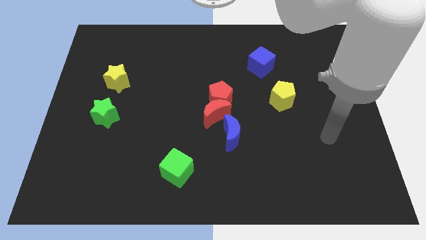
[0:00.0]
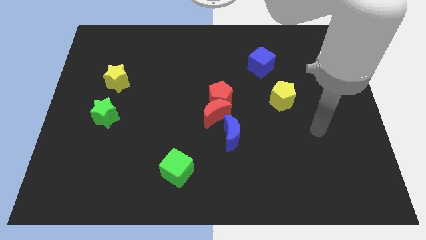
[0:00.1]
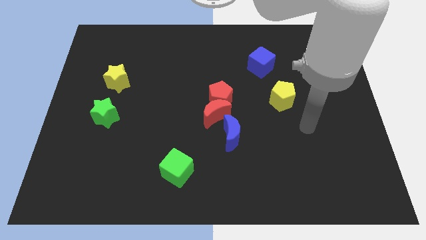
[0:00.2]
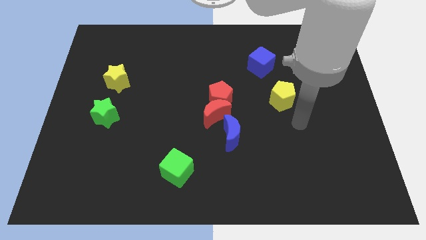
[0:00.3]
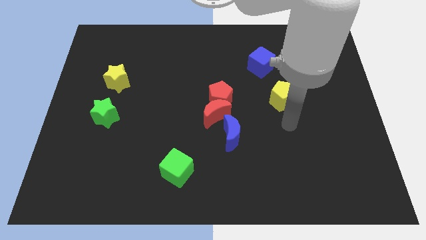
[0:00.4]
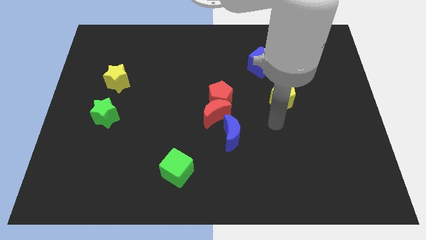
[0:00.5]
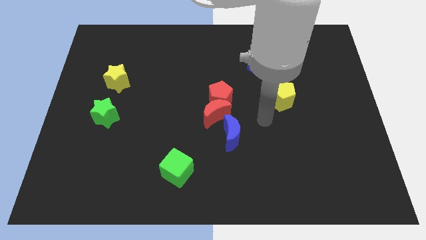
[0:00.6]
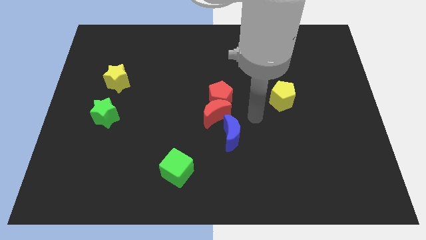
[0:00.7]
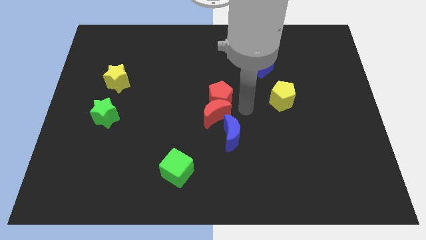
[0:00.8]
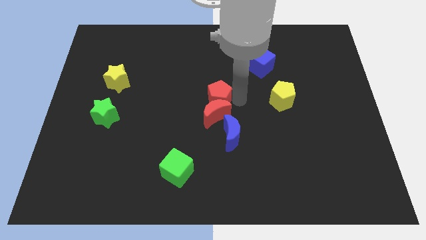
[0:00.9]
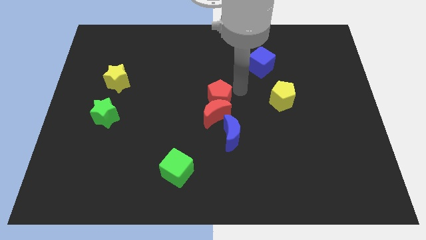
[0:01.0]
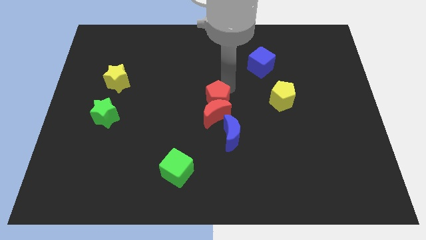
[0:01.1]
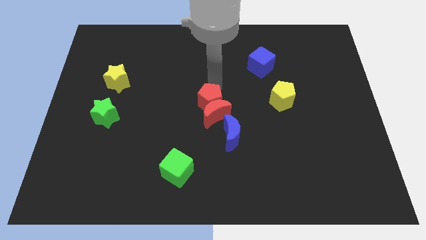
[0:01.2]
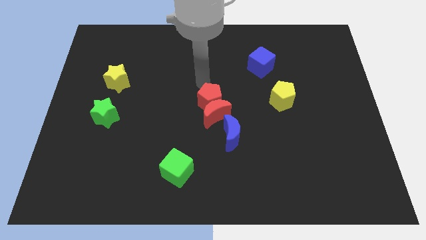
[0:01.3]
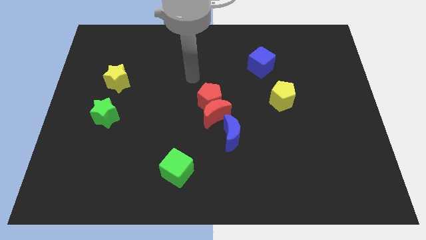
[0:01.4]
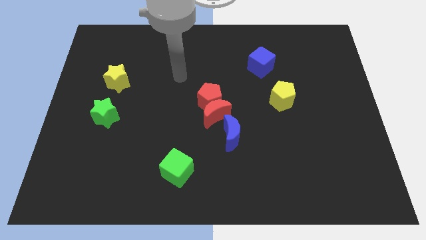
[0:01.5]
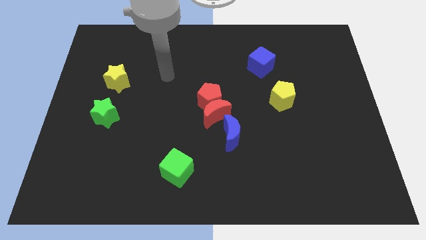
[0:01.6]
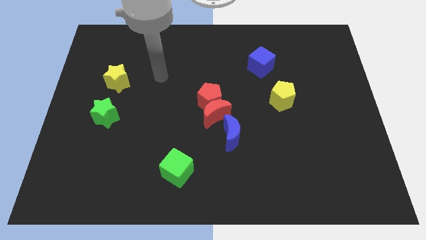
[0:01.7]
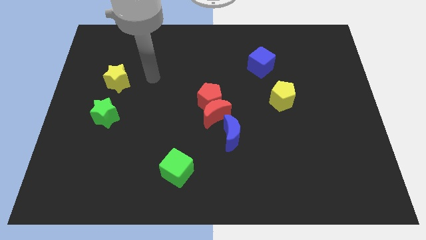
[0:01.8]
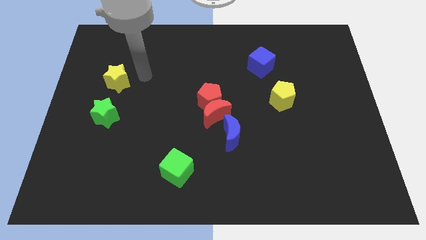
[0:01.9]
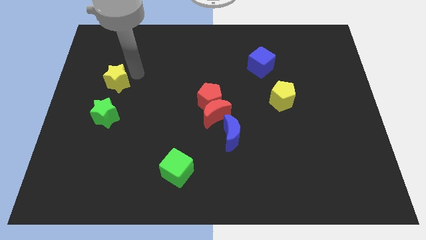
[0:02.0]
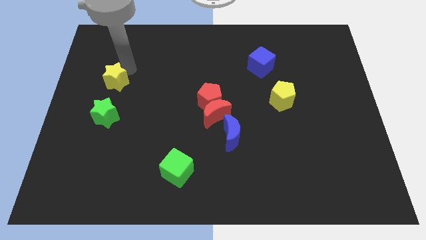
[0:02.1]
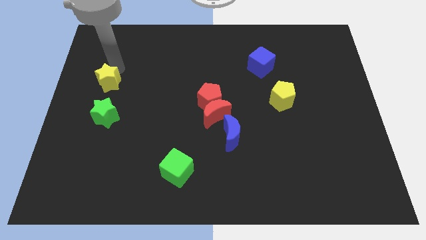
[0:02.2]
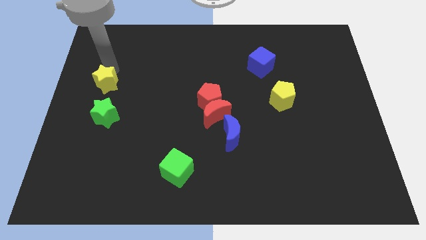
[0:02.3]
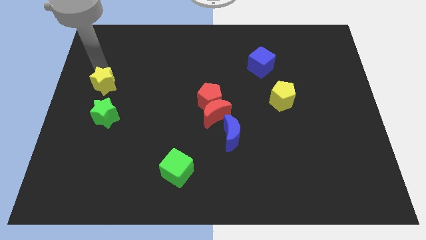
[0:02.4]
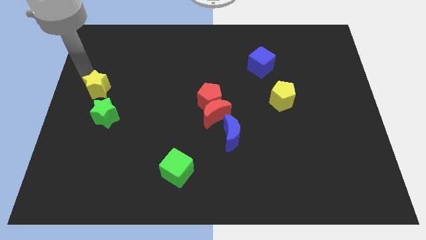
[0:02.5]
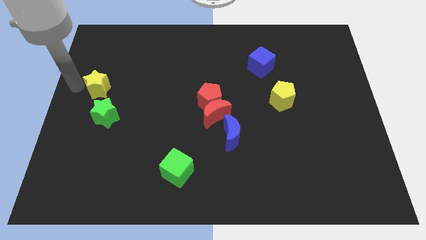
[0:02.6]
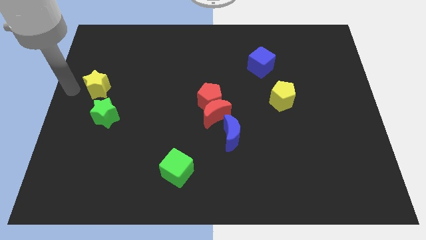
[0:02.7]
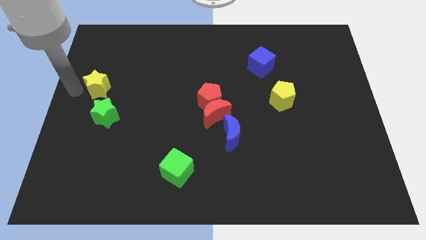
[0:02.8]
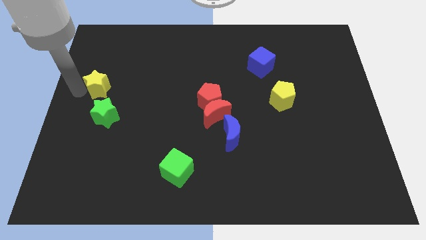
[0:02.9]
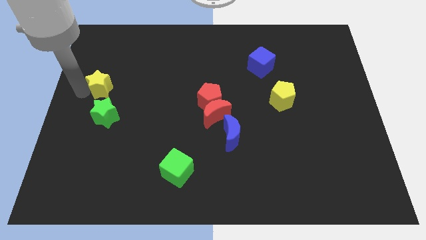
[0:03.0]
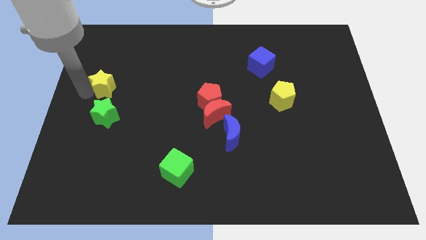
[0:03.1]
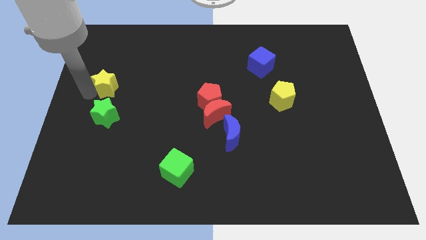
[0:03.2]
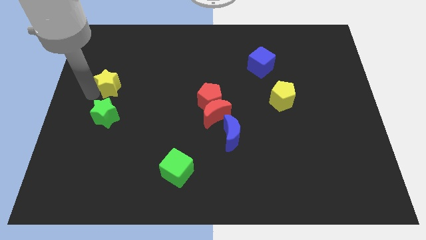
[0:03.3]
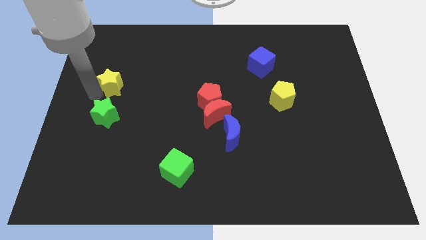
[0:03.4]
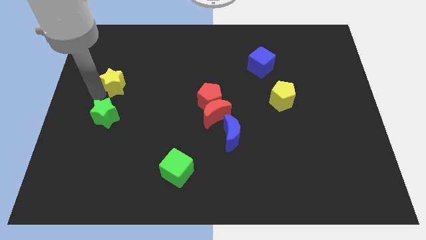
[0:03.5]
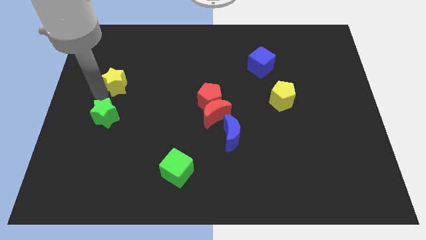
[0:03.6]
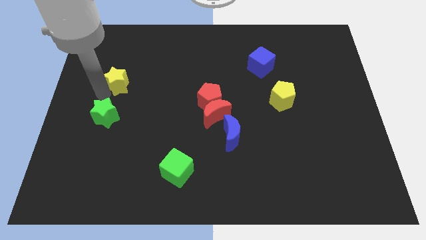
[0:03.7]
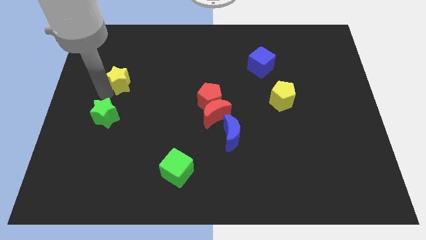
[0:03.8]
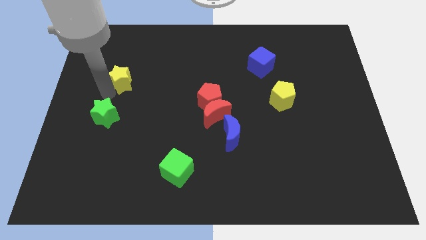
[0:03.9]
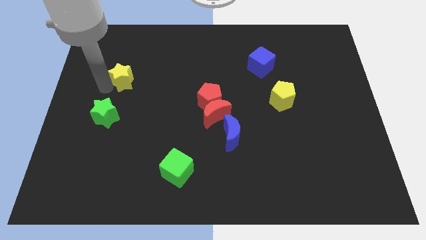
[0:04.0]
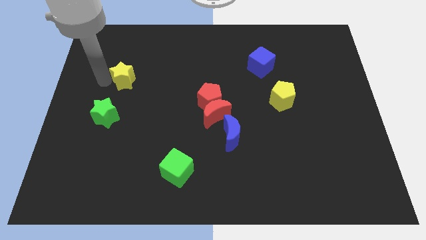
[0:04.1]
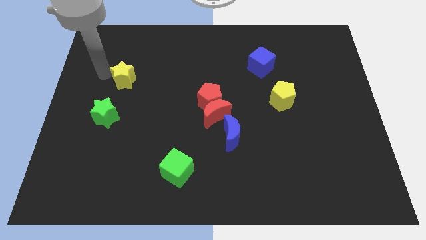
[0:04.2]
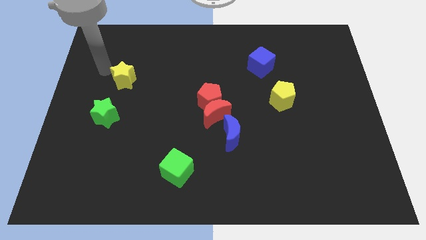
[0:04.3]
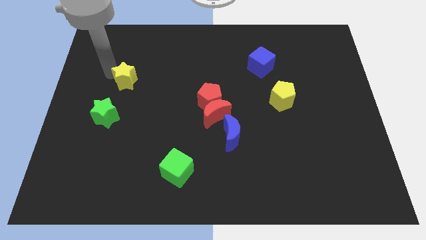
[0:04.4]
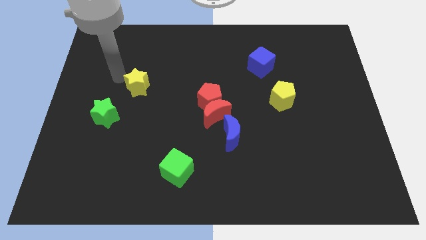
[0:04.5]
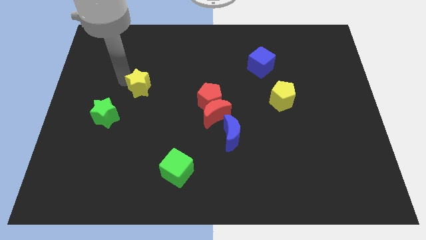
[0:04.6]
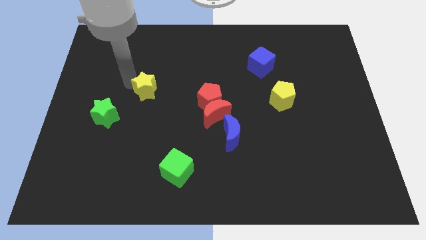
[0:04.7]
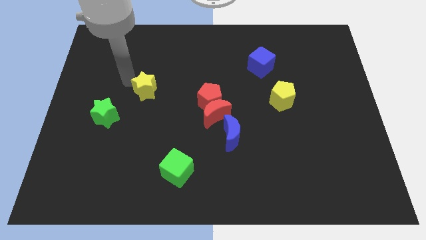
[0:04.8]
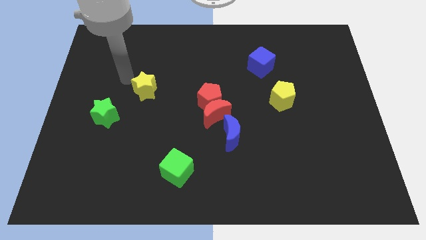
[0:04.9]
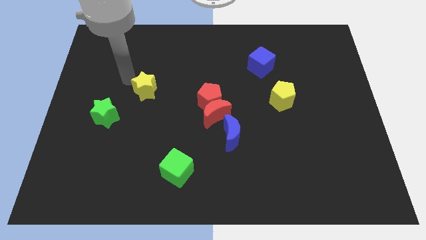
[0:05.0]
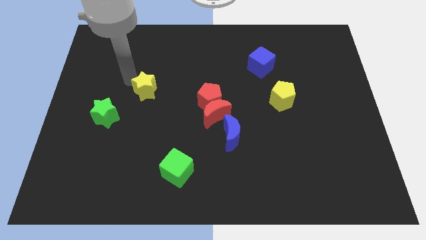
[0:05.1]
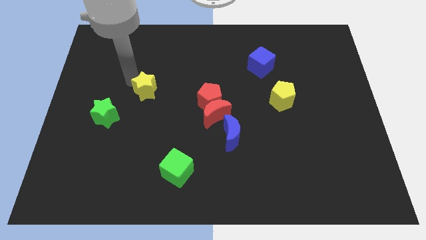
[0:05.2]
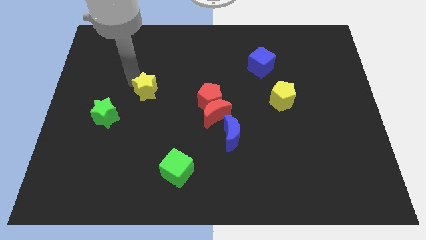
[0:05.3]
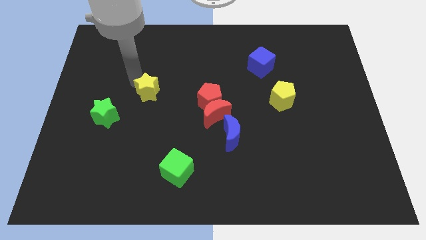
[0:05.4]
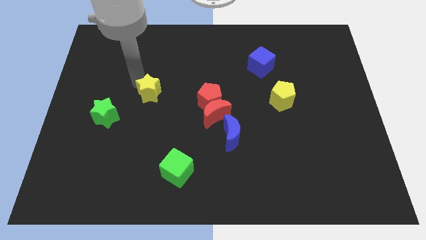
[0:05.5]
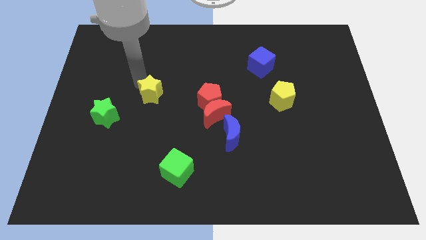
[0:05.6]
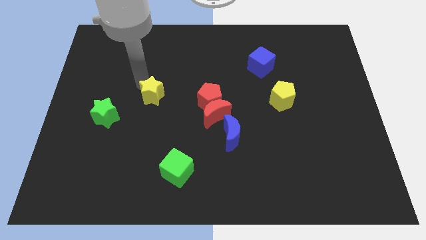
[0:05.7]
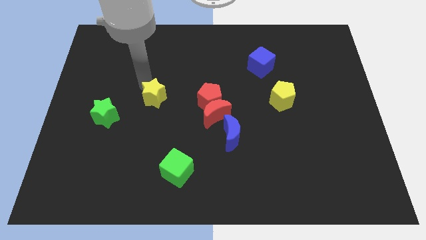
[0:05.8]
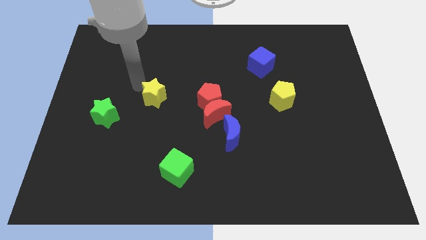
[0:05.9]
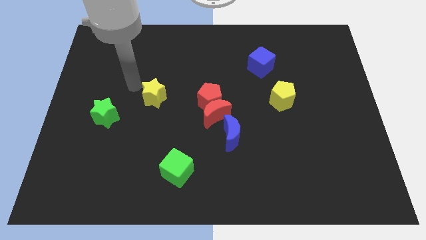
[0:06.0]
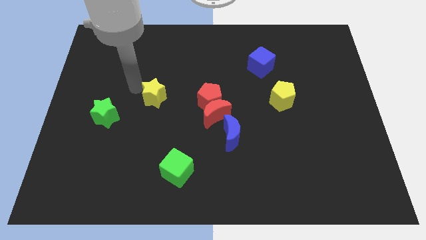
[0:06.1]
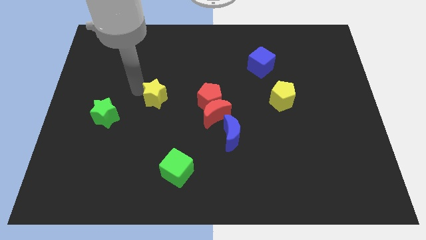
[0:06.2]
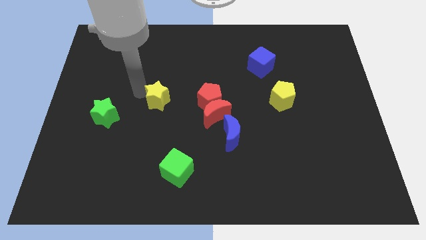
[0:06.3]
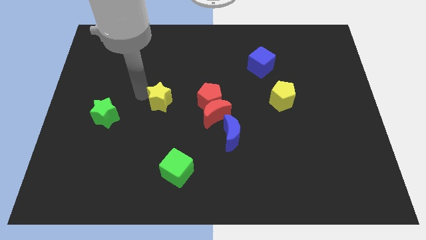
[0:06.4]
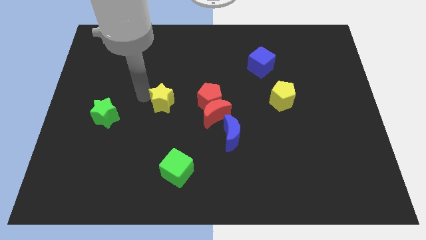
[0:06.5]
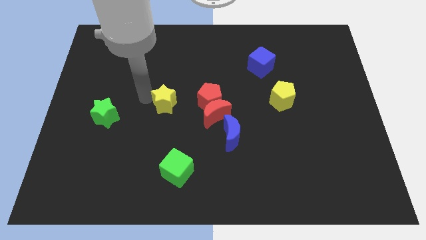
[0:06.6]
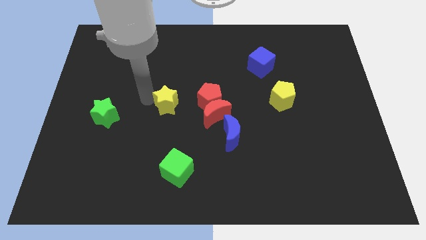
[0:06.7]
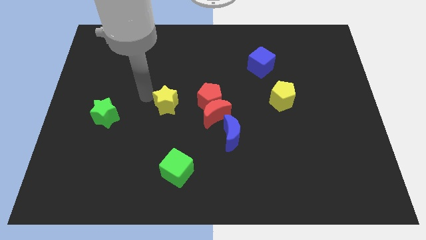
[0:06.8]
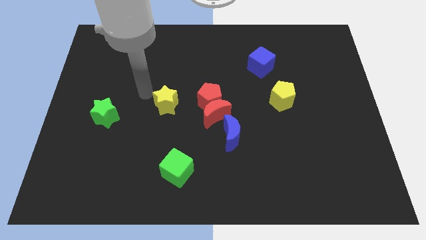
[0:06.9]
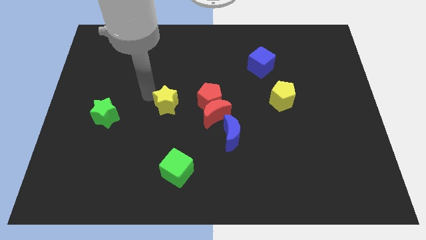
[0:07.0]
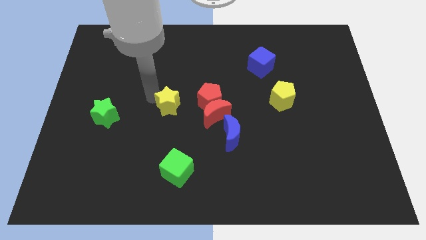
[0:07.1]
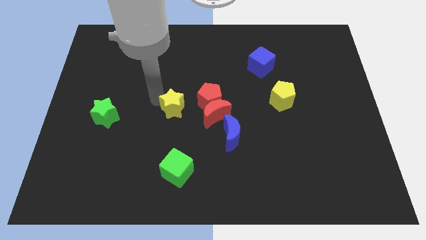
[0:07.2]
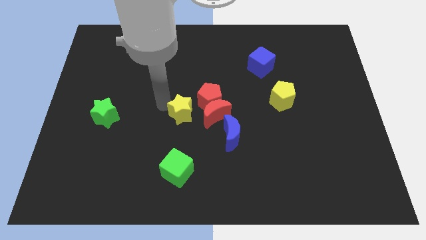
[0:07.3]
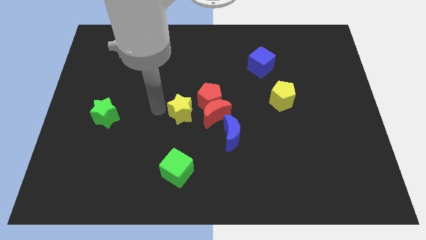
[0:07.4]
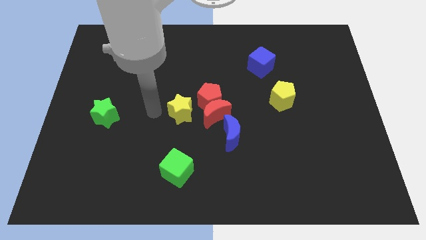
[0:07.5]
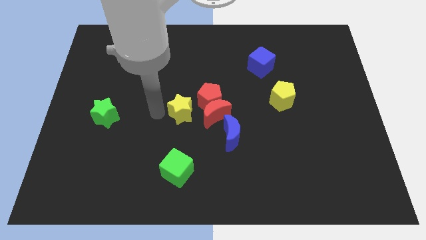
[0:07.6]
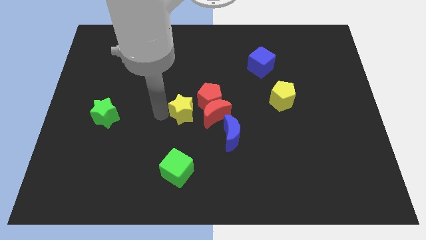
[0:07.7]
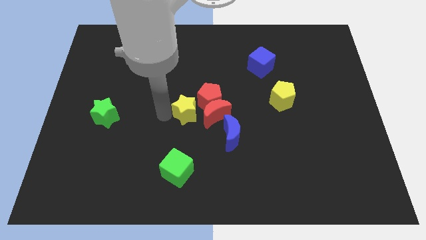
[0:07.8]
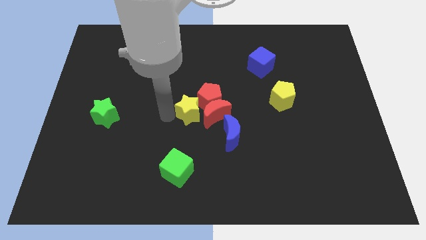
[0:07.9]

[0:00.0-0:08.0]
push the yellow star close to the red moon

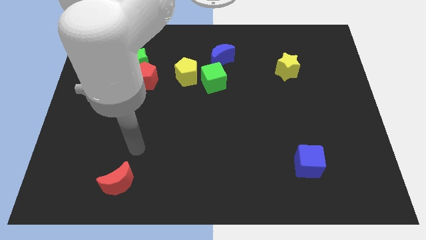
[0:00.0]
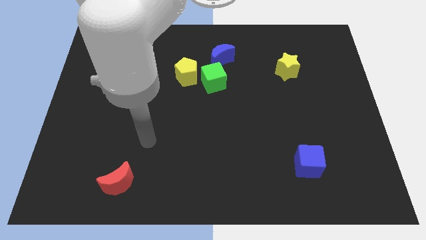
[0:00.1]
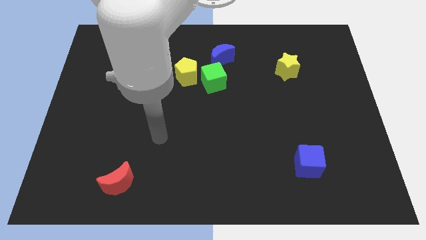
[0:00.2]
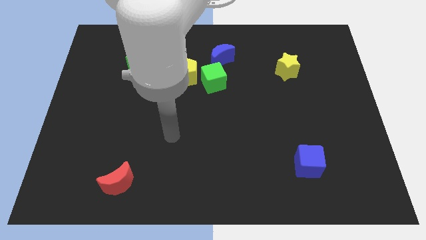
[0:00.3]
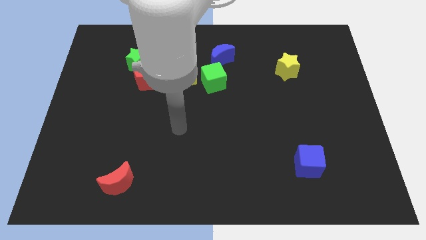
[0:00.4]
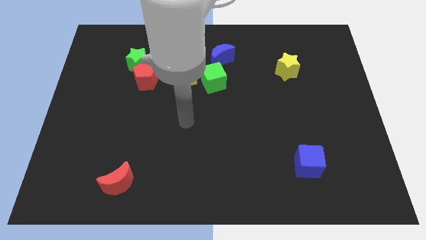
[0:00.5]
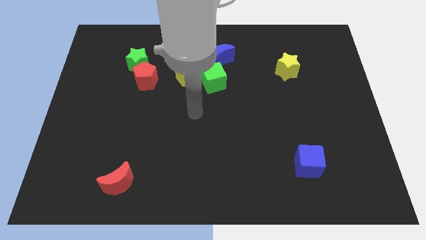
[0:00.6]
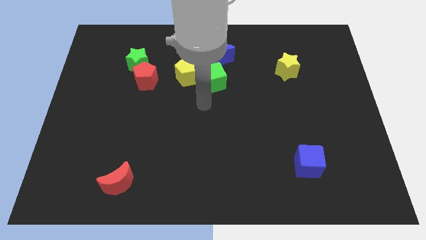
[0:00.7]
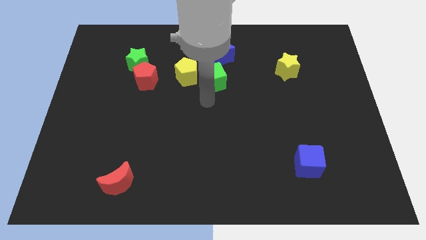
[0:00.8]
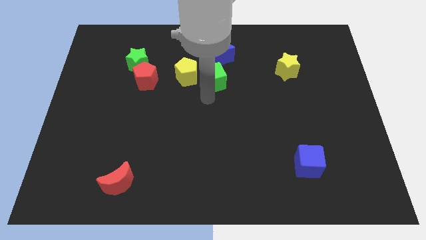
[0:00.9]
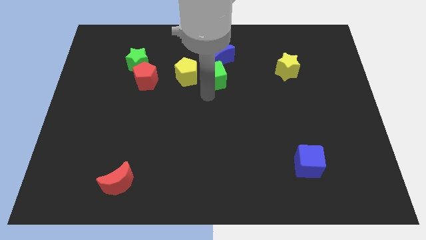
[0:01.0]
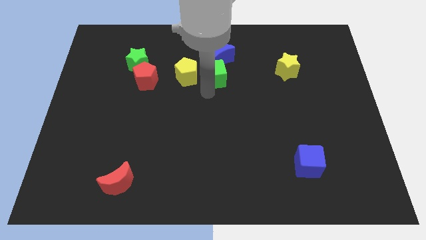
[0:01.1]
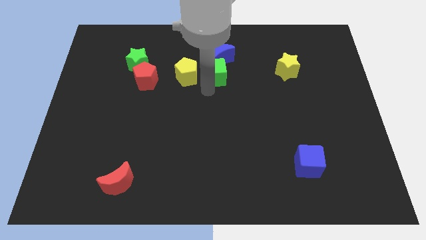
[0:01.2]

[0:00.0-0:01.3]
put the green cube towards the blue moon
